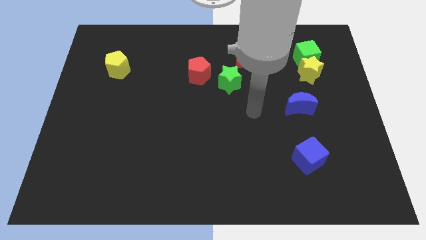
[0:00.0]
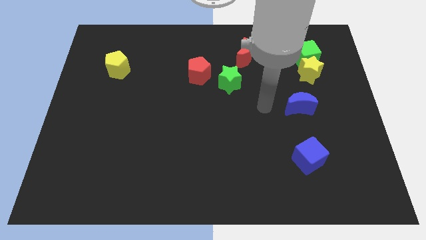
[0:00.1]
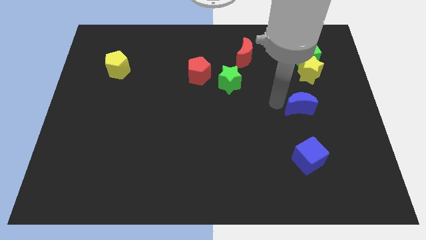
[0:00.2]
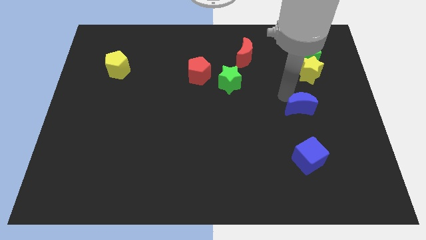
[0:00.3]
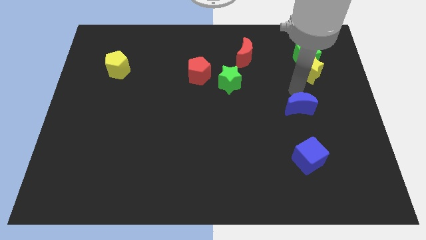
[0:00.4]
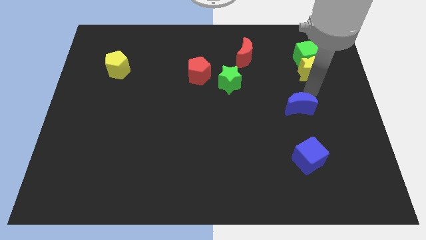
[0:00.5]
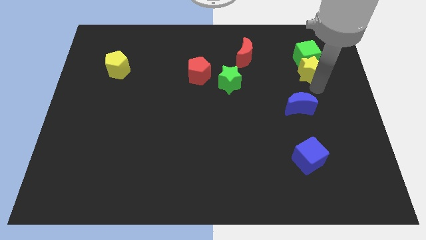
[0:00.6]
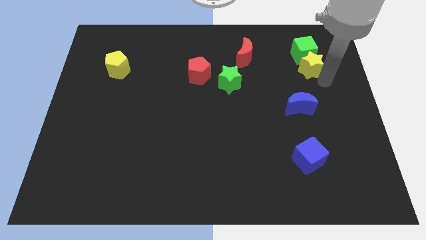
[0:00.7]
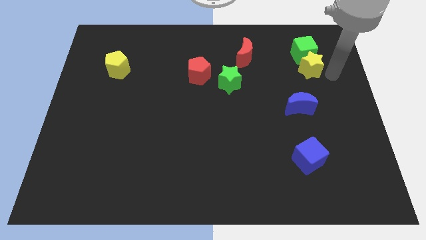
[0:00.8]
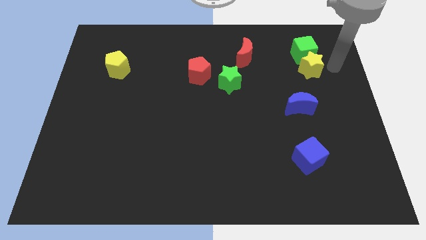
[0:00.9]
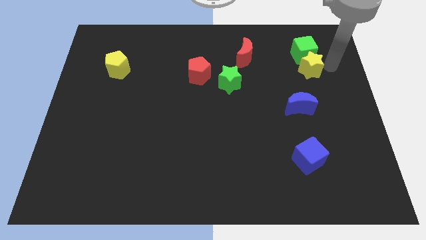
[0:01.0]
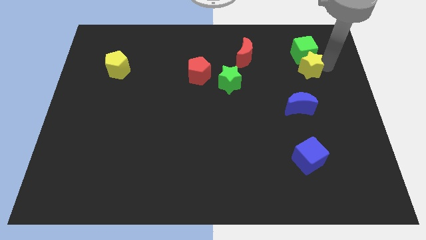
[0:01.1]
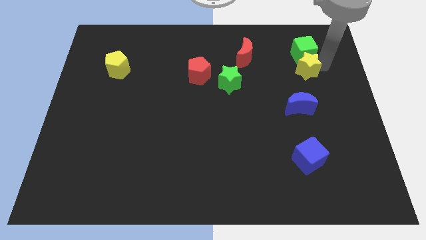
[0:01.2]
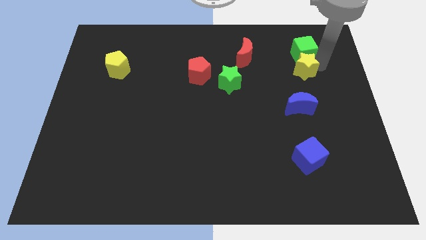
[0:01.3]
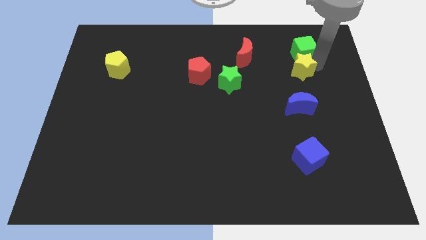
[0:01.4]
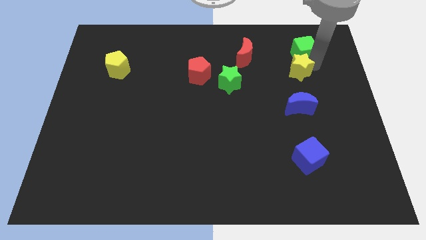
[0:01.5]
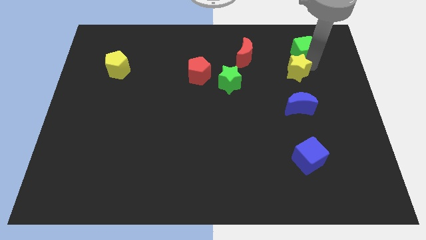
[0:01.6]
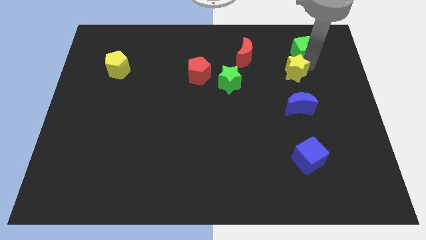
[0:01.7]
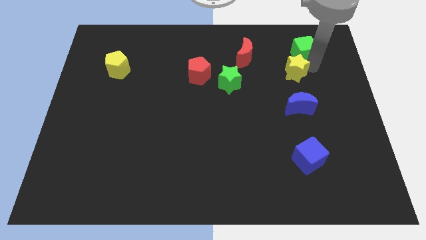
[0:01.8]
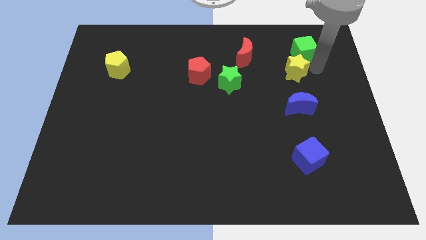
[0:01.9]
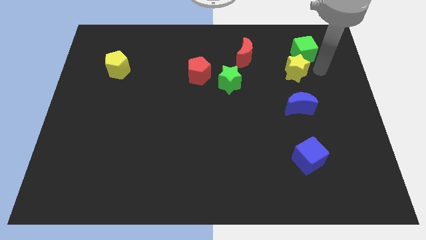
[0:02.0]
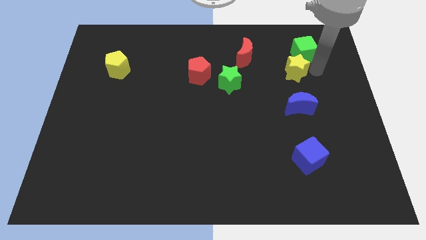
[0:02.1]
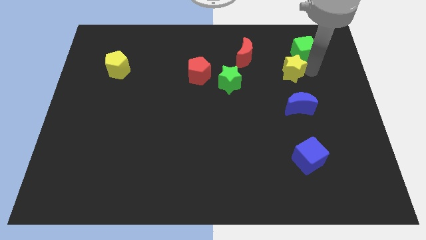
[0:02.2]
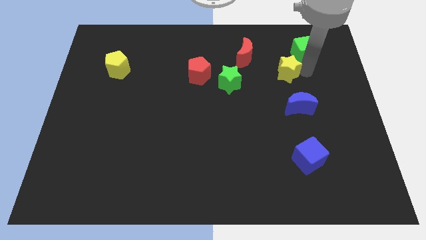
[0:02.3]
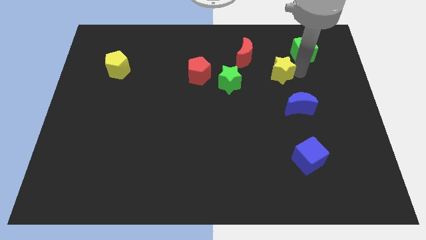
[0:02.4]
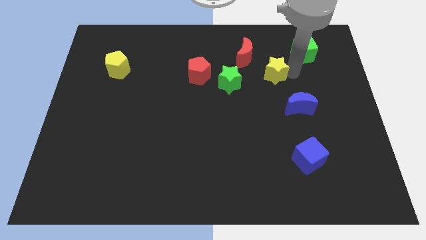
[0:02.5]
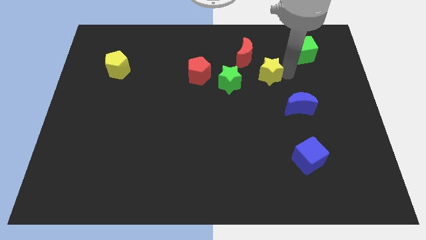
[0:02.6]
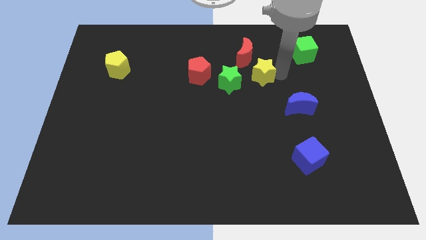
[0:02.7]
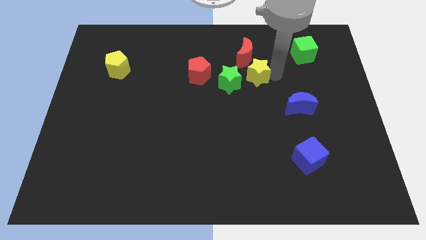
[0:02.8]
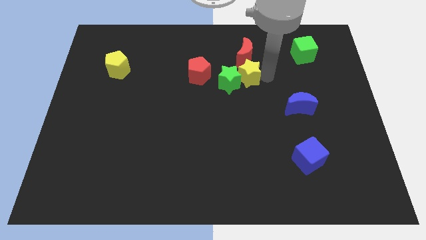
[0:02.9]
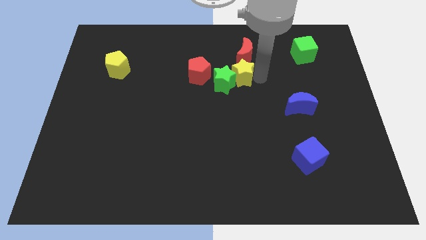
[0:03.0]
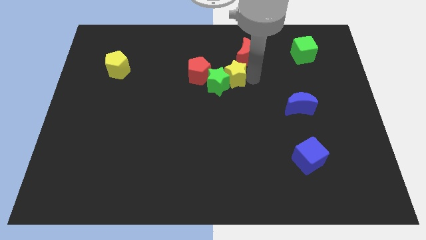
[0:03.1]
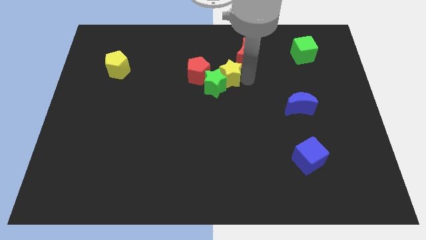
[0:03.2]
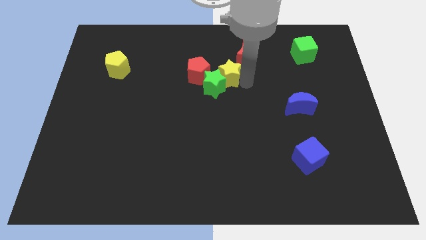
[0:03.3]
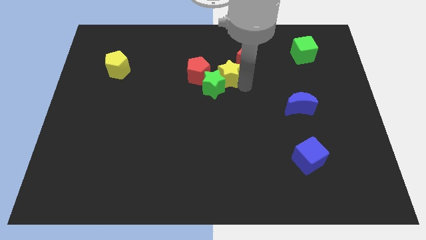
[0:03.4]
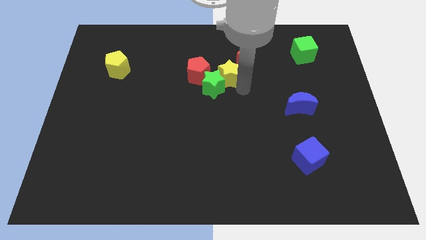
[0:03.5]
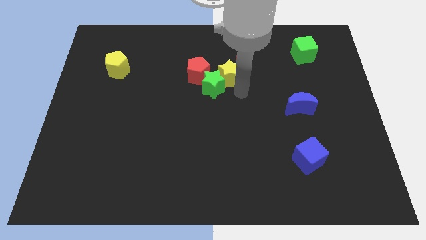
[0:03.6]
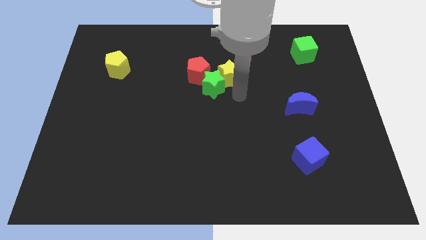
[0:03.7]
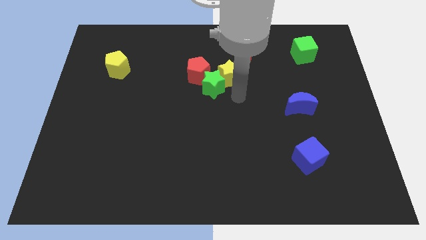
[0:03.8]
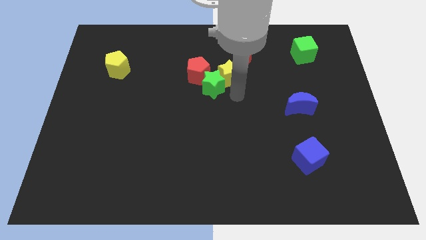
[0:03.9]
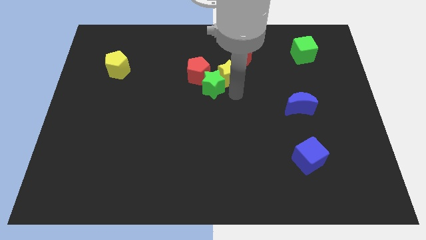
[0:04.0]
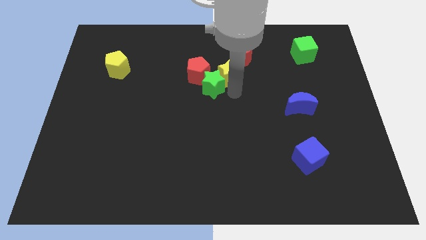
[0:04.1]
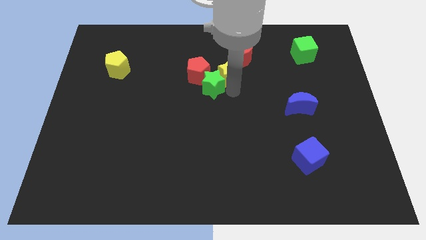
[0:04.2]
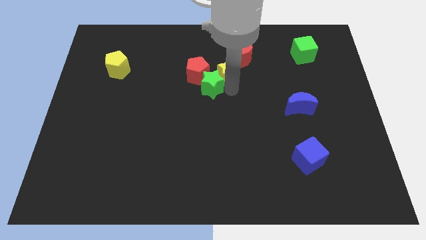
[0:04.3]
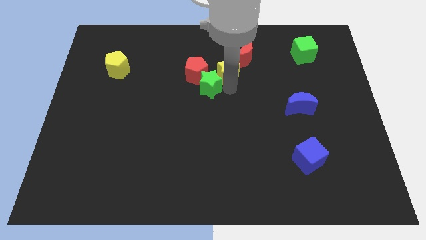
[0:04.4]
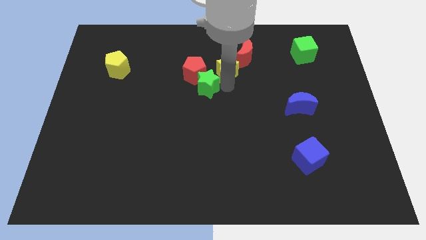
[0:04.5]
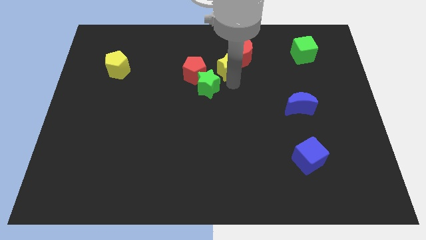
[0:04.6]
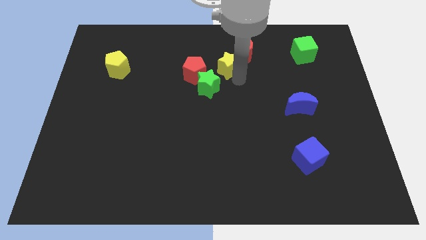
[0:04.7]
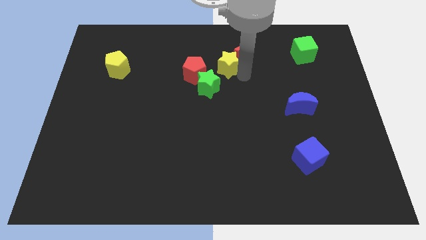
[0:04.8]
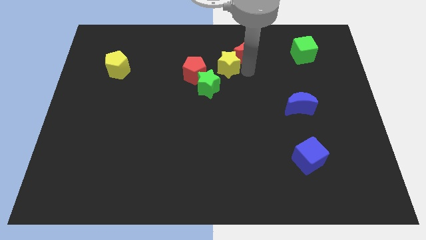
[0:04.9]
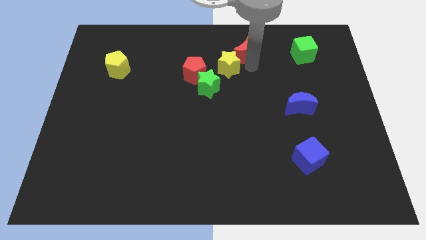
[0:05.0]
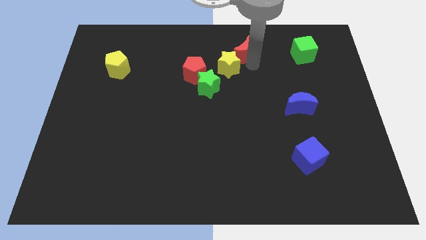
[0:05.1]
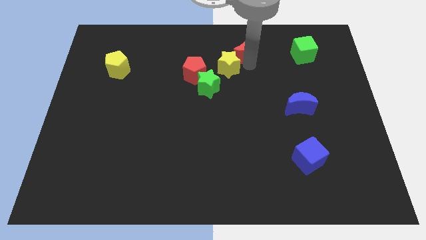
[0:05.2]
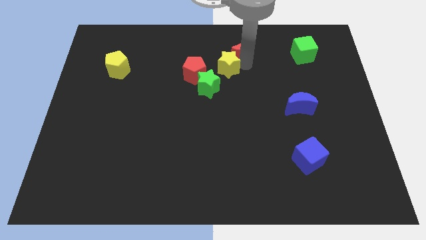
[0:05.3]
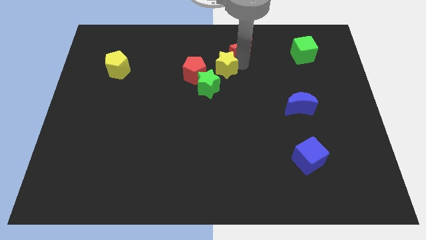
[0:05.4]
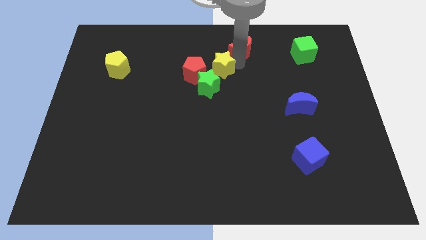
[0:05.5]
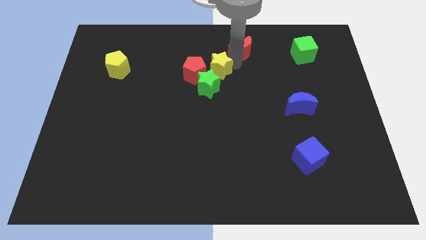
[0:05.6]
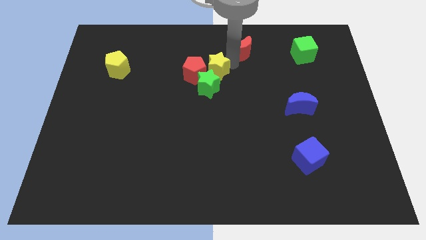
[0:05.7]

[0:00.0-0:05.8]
move the yellow star to the red pentagon

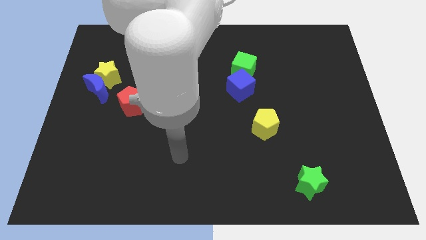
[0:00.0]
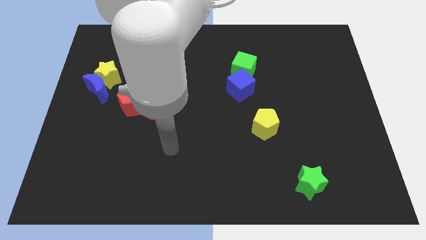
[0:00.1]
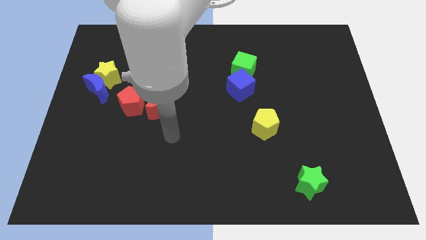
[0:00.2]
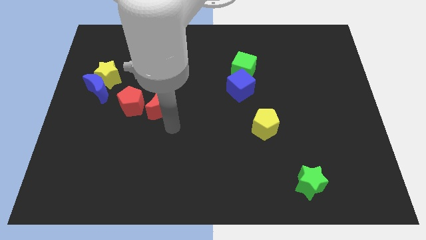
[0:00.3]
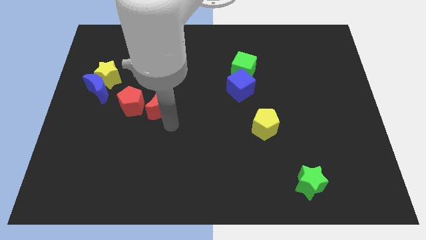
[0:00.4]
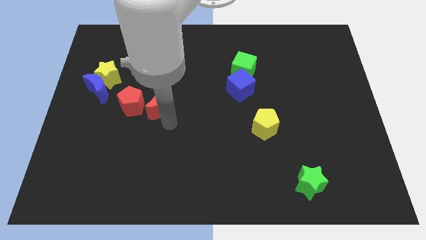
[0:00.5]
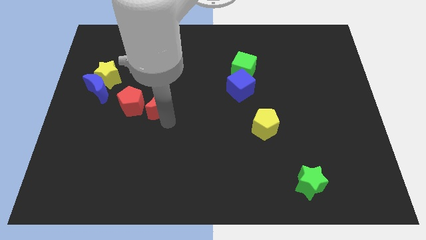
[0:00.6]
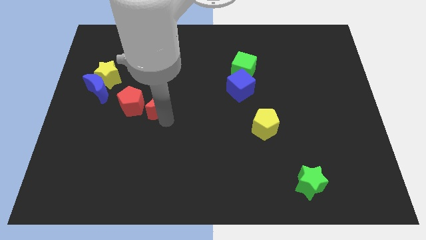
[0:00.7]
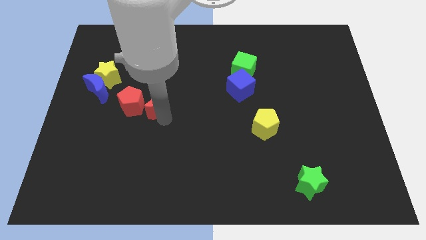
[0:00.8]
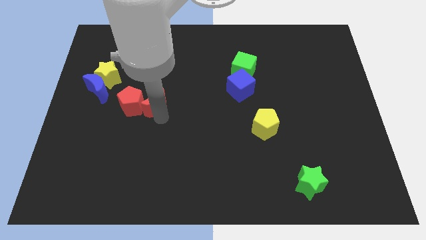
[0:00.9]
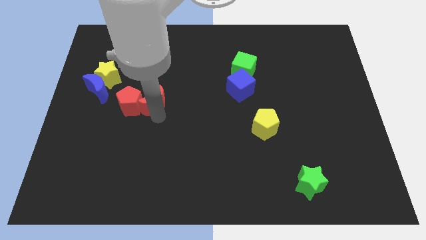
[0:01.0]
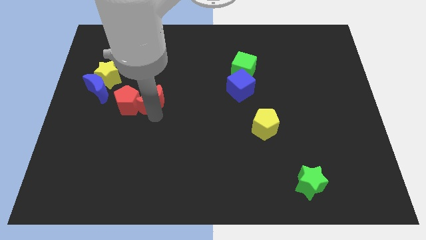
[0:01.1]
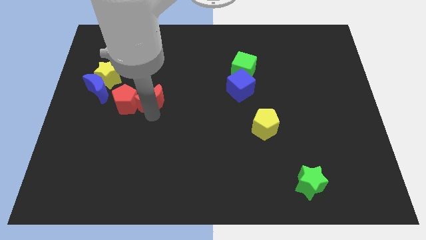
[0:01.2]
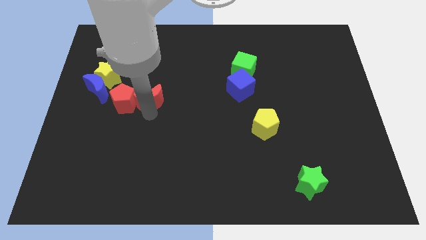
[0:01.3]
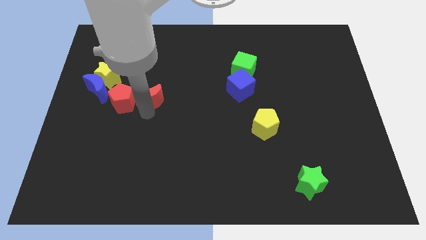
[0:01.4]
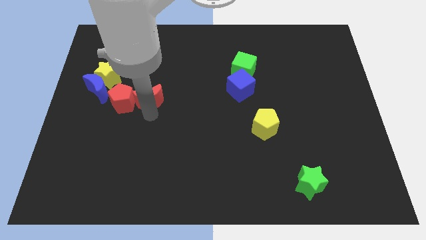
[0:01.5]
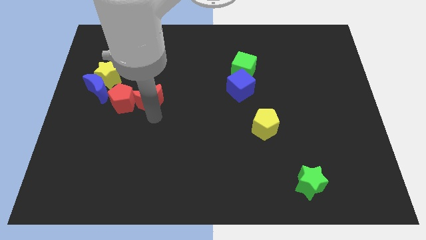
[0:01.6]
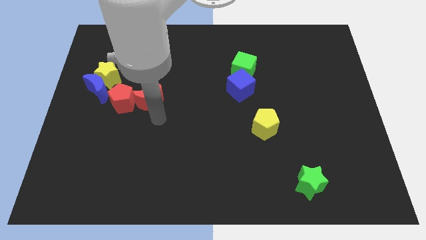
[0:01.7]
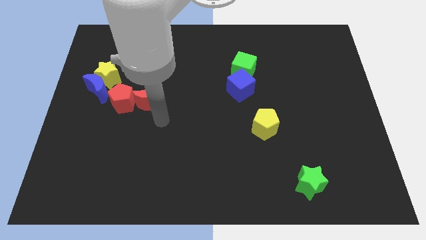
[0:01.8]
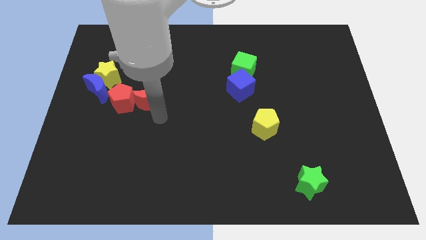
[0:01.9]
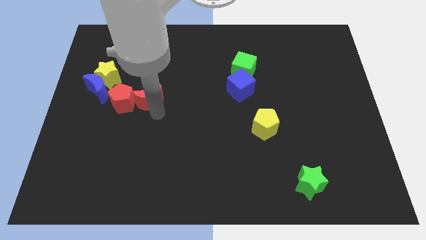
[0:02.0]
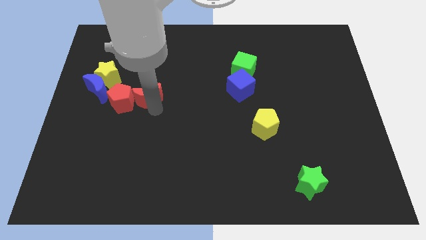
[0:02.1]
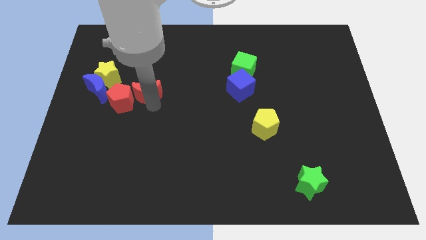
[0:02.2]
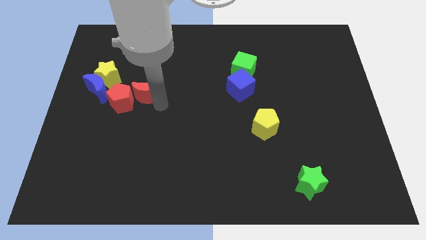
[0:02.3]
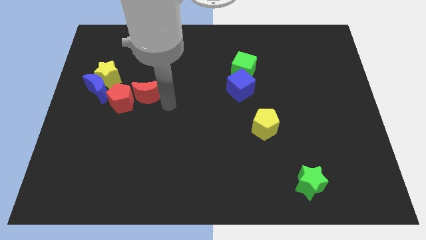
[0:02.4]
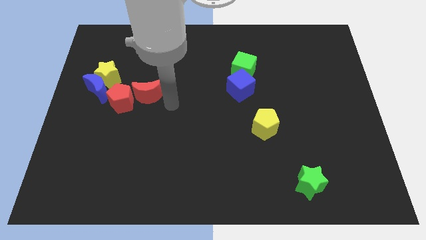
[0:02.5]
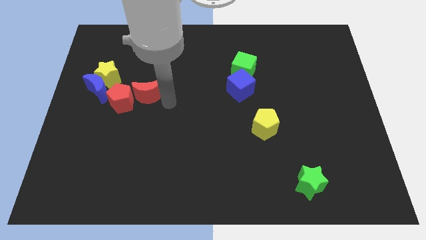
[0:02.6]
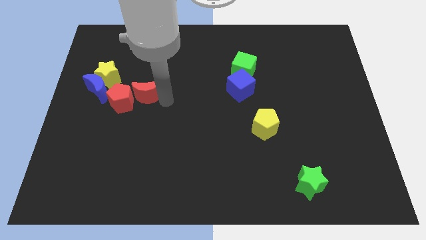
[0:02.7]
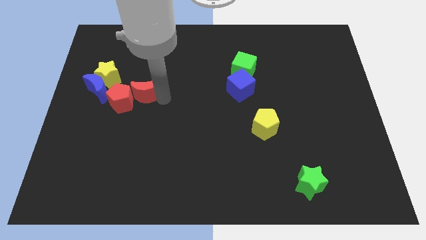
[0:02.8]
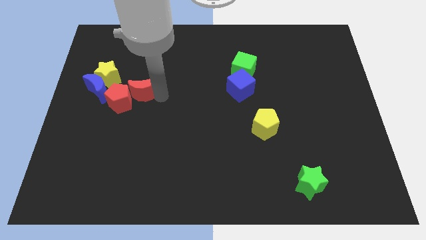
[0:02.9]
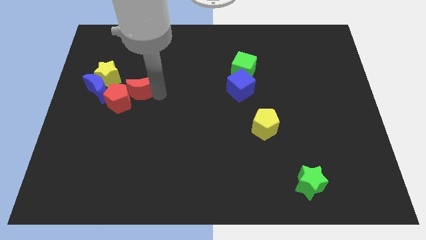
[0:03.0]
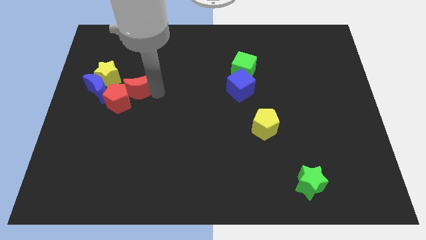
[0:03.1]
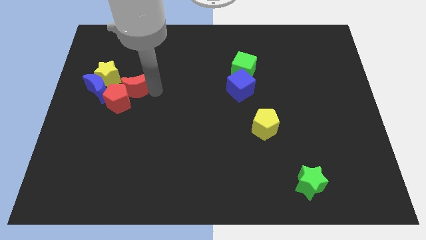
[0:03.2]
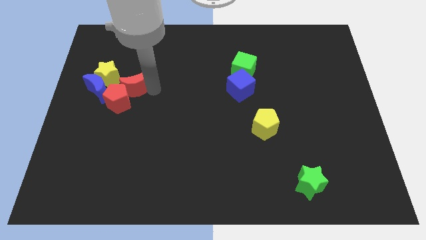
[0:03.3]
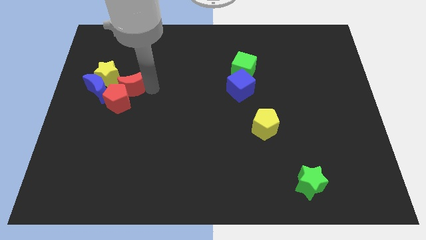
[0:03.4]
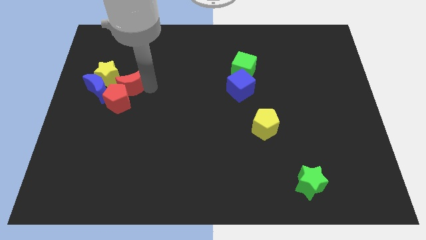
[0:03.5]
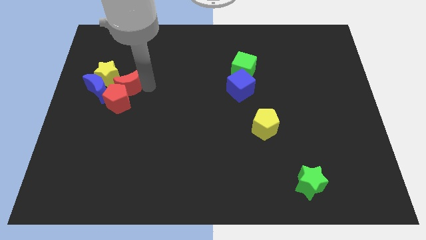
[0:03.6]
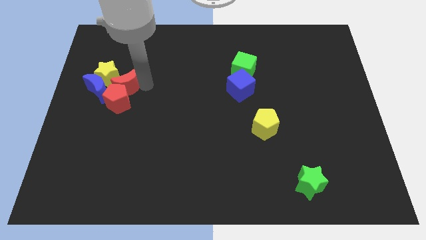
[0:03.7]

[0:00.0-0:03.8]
push the red moon close to the yellow star
